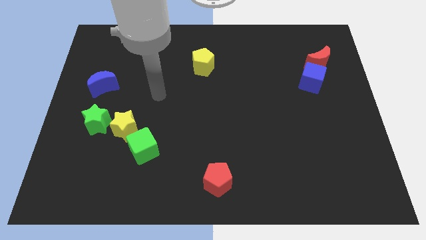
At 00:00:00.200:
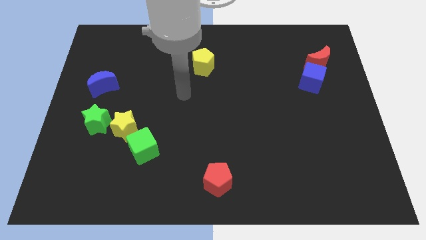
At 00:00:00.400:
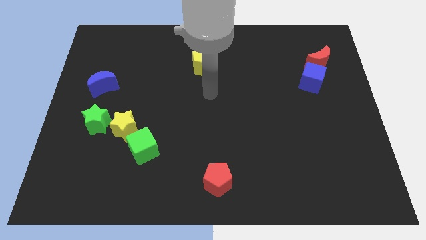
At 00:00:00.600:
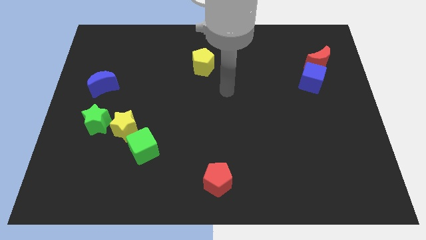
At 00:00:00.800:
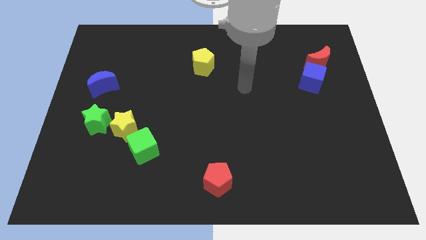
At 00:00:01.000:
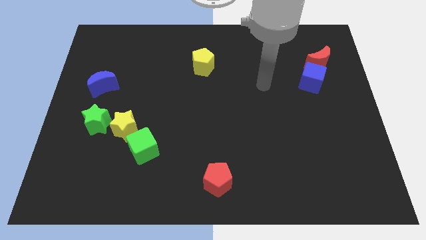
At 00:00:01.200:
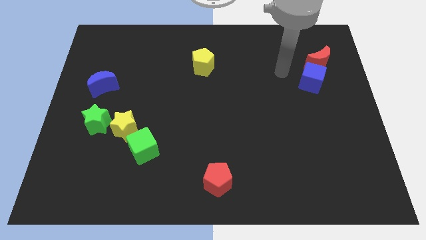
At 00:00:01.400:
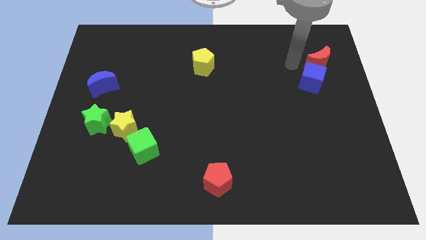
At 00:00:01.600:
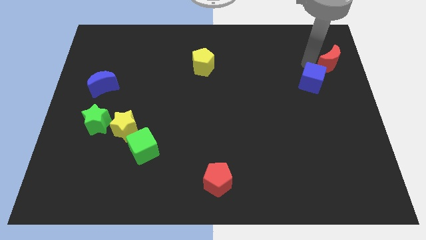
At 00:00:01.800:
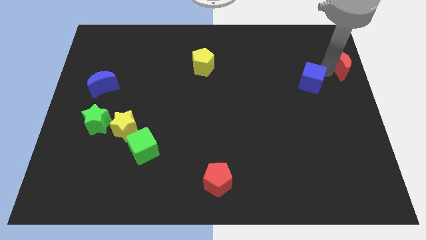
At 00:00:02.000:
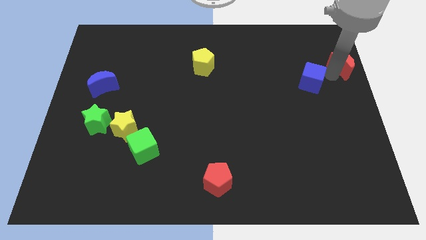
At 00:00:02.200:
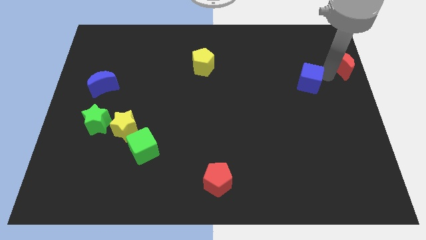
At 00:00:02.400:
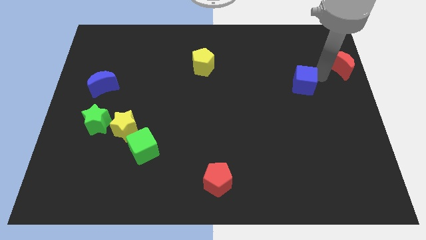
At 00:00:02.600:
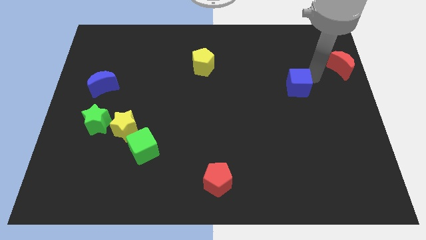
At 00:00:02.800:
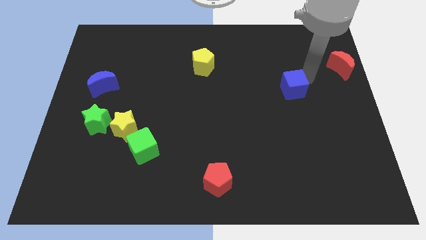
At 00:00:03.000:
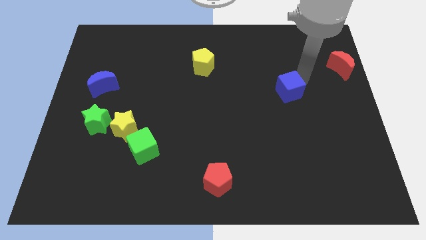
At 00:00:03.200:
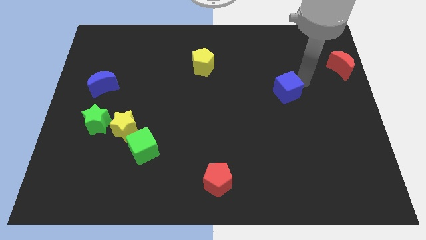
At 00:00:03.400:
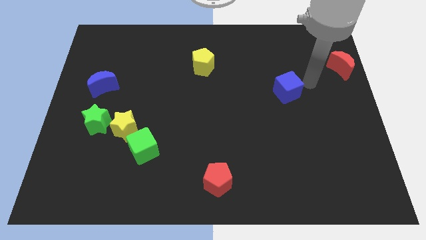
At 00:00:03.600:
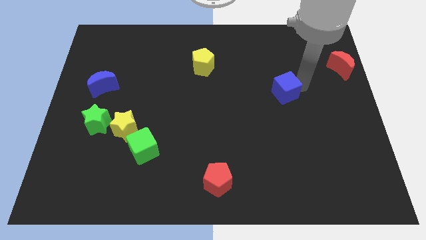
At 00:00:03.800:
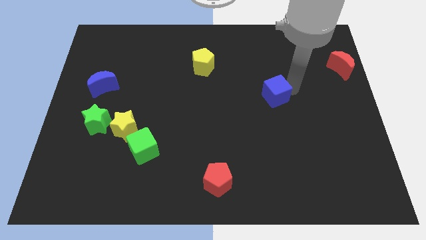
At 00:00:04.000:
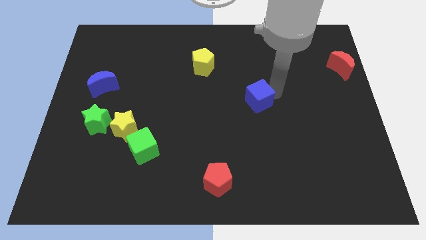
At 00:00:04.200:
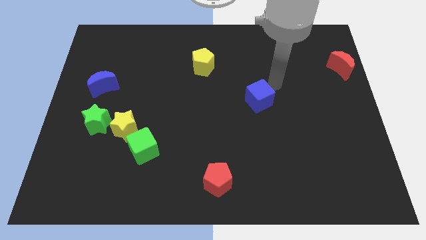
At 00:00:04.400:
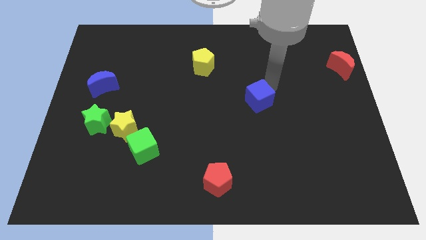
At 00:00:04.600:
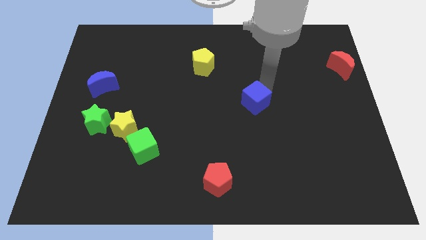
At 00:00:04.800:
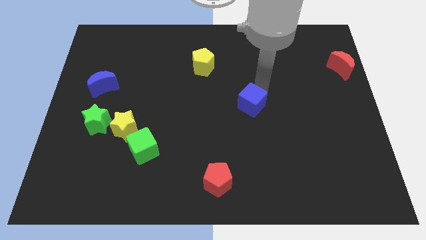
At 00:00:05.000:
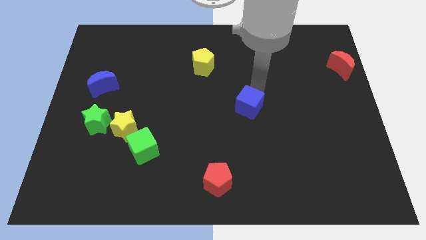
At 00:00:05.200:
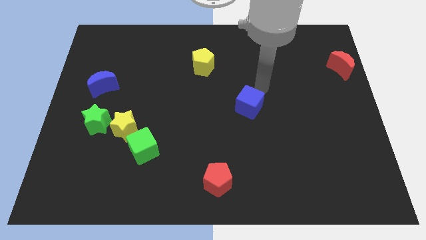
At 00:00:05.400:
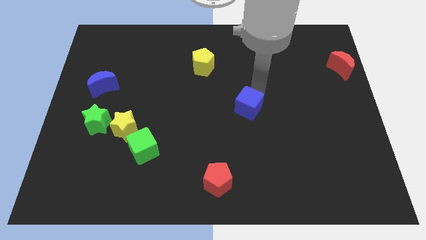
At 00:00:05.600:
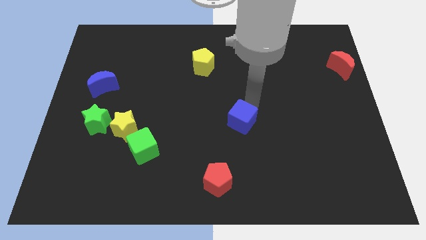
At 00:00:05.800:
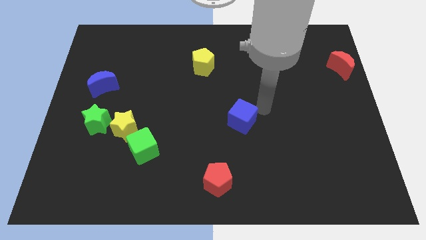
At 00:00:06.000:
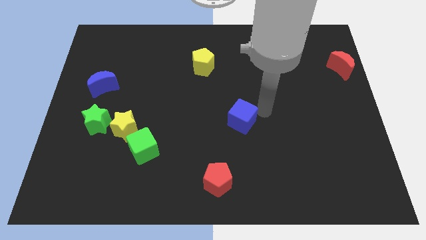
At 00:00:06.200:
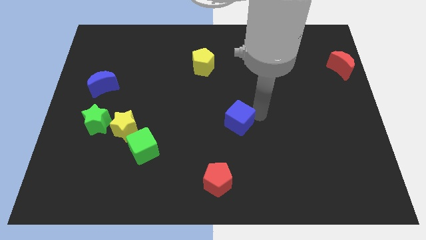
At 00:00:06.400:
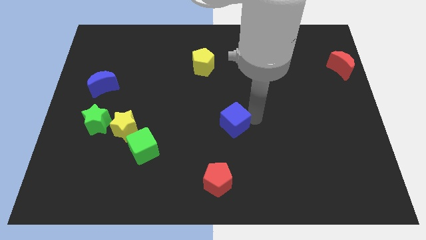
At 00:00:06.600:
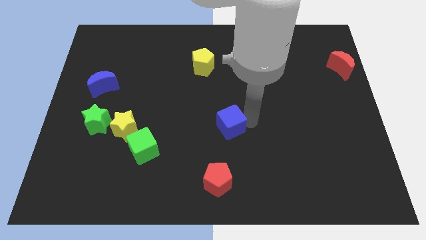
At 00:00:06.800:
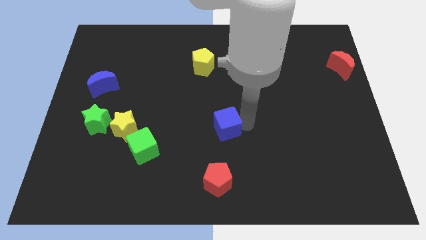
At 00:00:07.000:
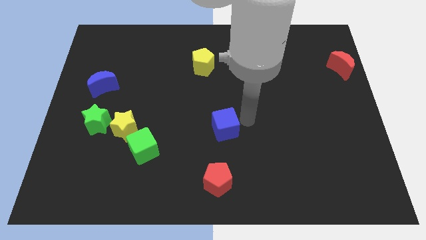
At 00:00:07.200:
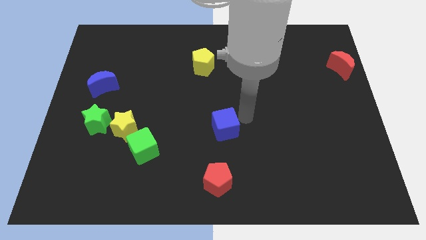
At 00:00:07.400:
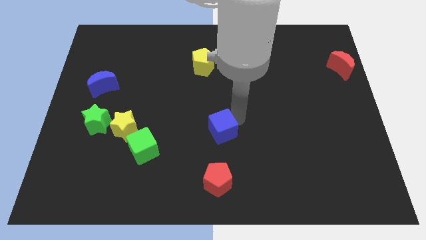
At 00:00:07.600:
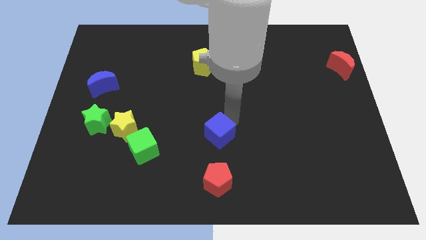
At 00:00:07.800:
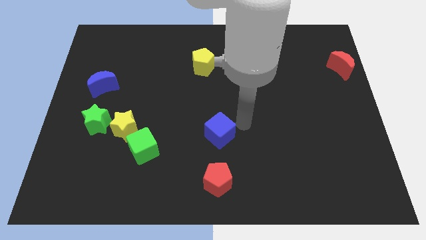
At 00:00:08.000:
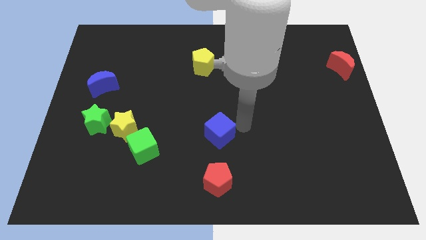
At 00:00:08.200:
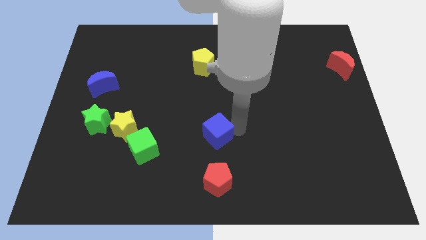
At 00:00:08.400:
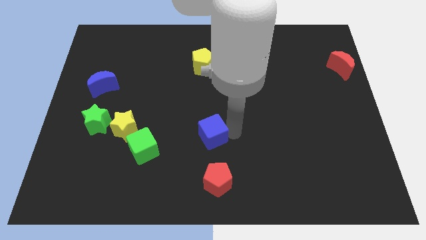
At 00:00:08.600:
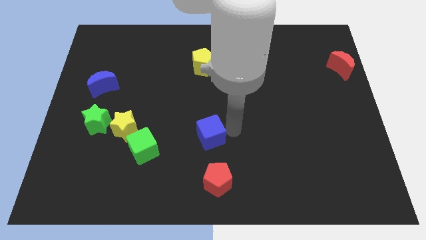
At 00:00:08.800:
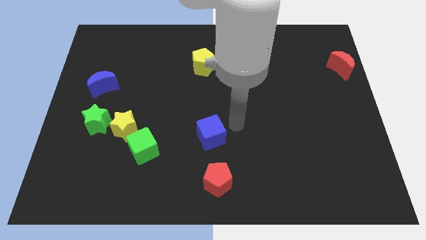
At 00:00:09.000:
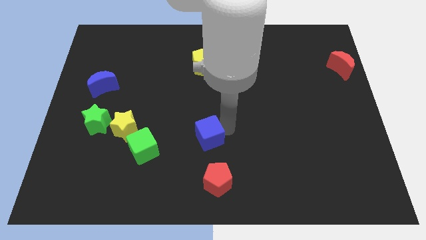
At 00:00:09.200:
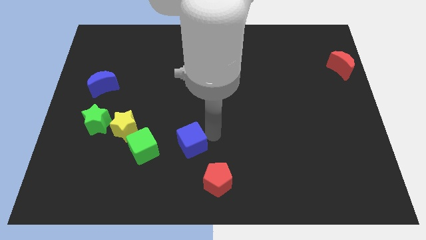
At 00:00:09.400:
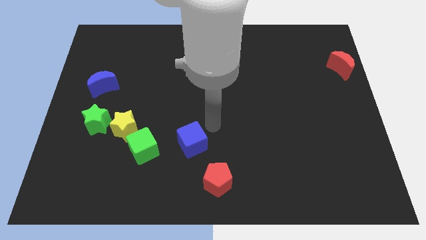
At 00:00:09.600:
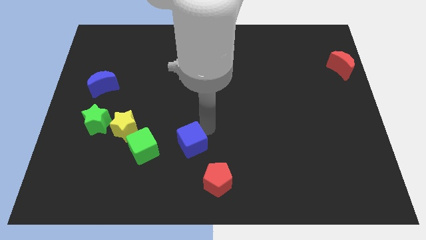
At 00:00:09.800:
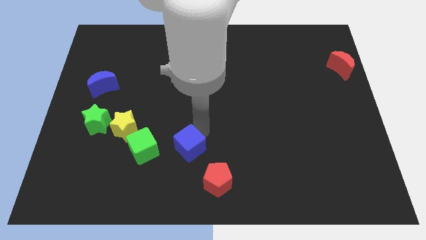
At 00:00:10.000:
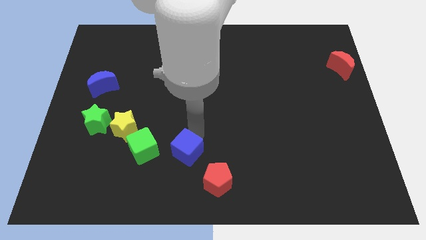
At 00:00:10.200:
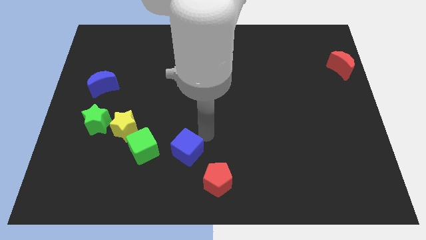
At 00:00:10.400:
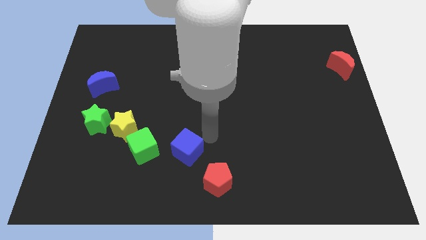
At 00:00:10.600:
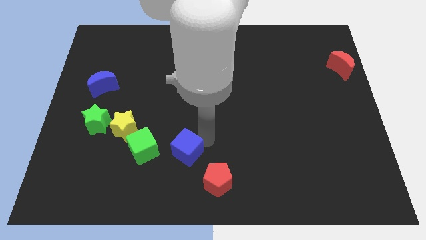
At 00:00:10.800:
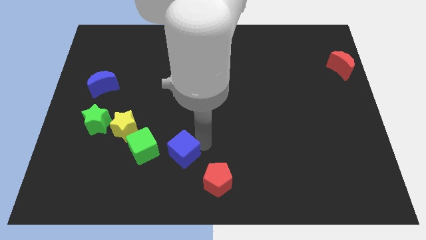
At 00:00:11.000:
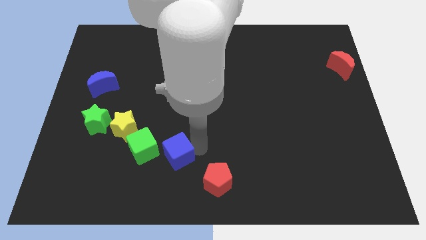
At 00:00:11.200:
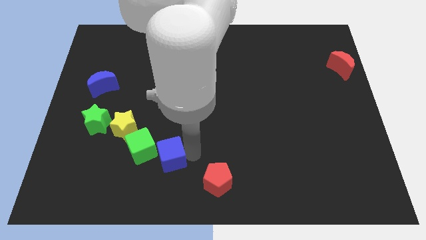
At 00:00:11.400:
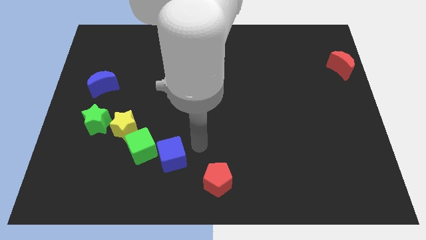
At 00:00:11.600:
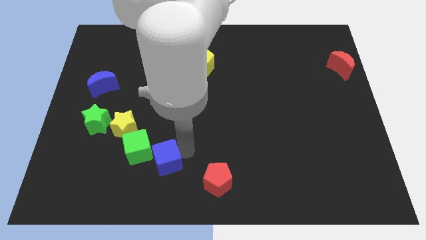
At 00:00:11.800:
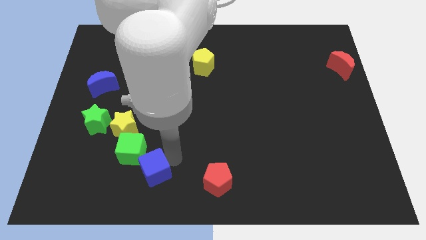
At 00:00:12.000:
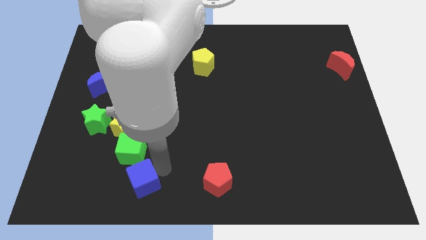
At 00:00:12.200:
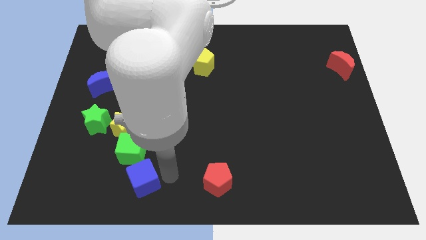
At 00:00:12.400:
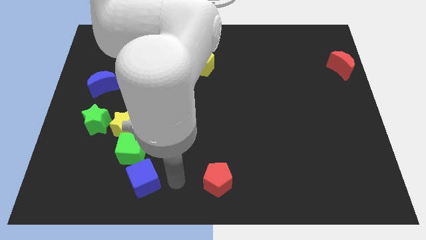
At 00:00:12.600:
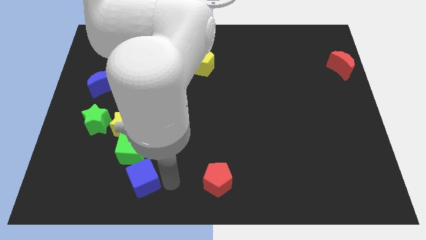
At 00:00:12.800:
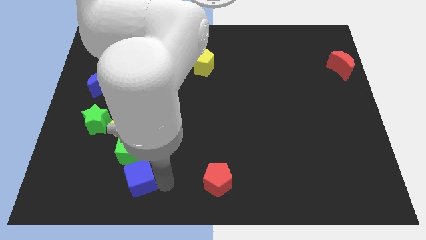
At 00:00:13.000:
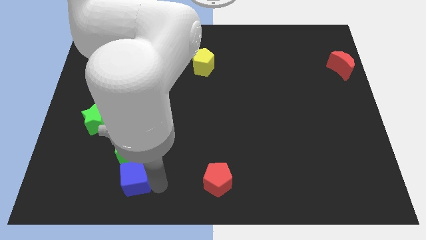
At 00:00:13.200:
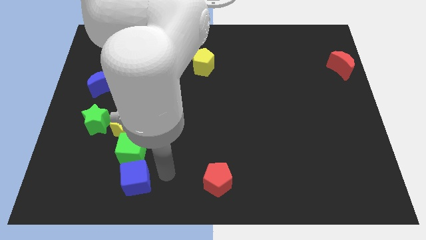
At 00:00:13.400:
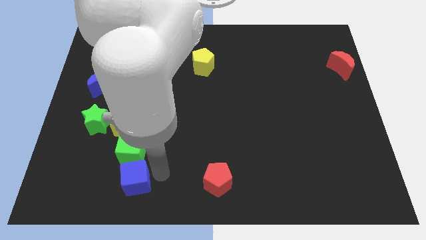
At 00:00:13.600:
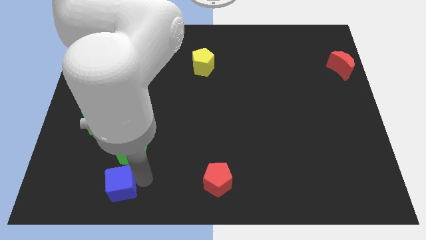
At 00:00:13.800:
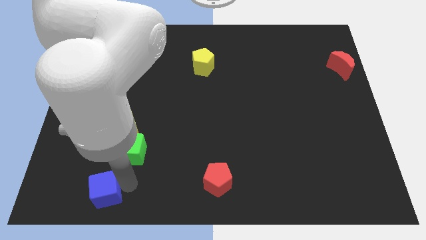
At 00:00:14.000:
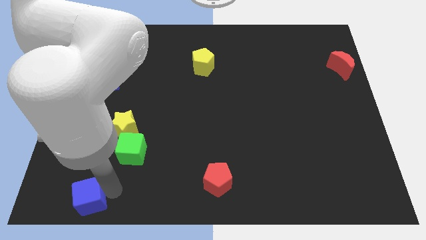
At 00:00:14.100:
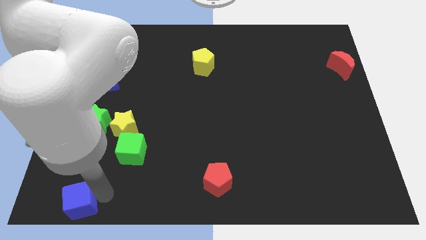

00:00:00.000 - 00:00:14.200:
put the blue cube to the bottom left
